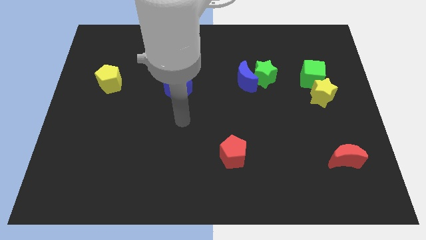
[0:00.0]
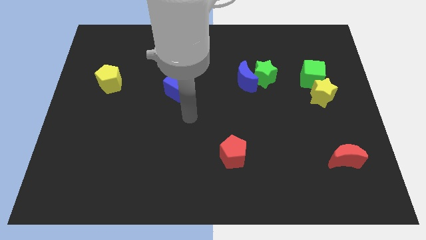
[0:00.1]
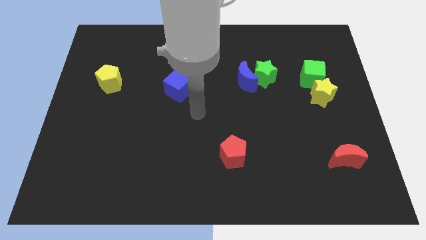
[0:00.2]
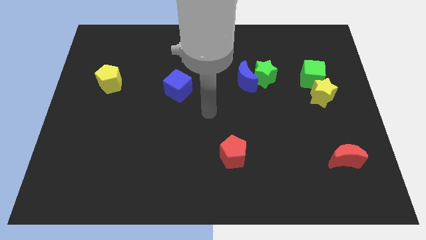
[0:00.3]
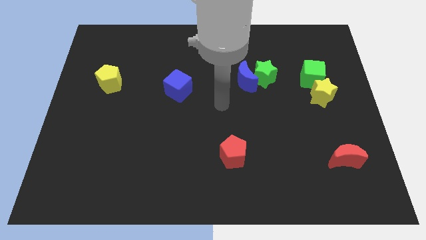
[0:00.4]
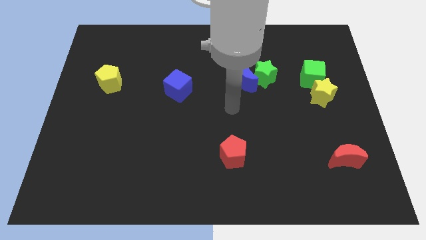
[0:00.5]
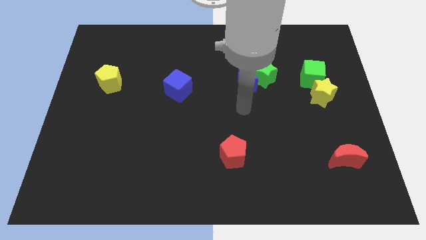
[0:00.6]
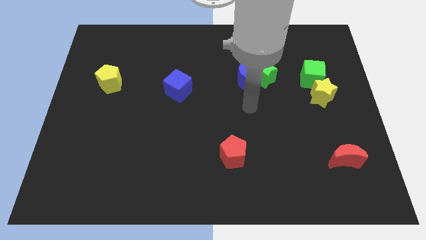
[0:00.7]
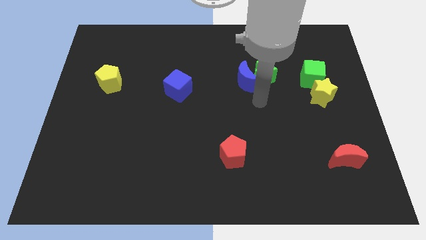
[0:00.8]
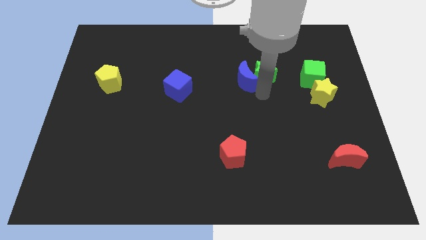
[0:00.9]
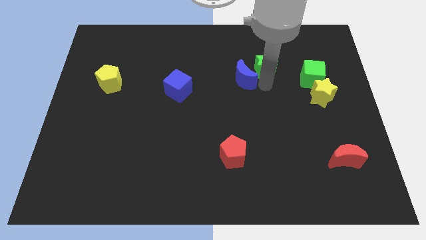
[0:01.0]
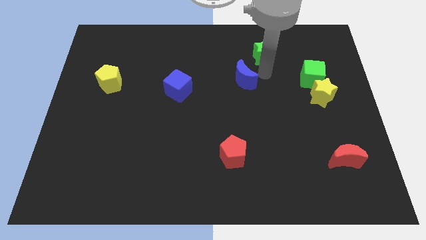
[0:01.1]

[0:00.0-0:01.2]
move the blue moon away from the green star

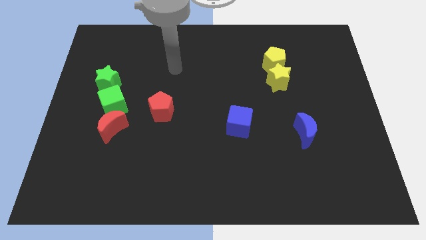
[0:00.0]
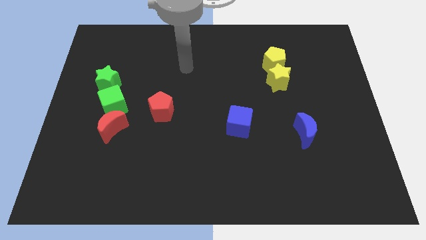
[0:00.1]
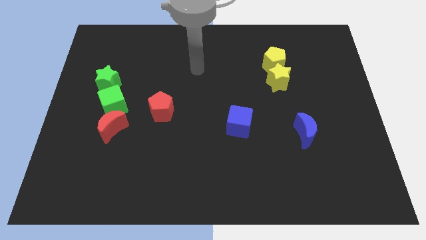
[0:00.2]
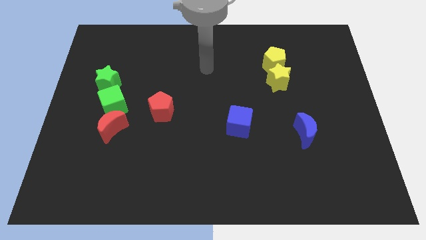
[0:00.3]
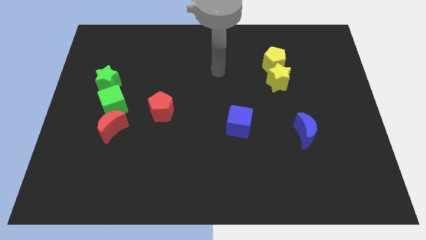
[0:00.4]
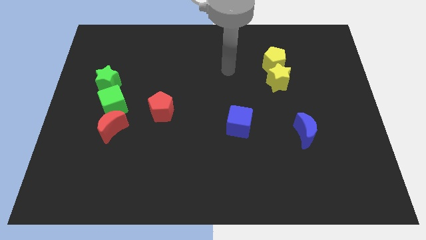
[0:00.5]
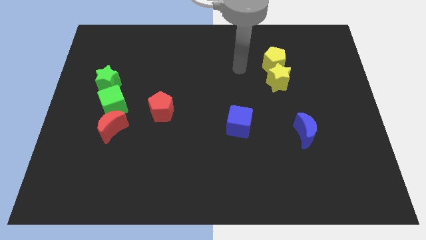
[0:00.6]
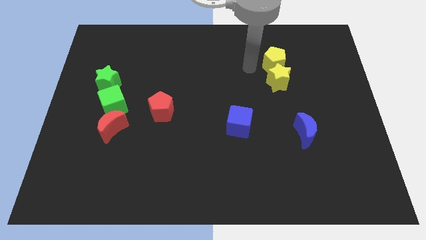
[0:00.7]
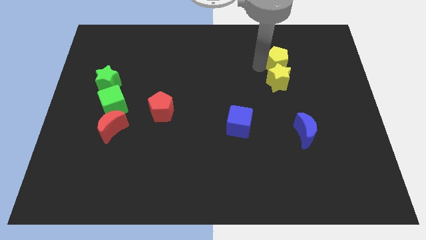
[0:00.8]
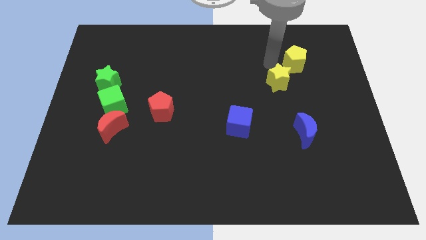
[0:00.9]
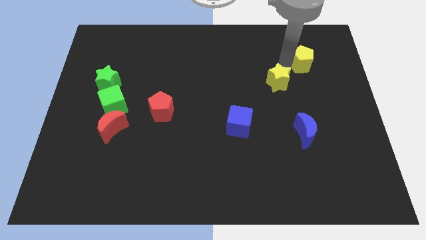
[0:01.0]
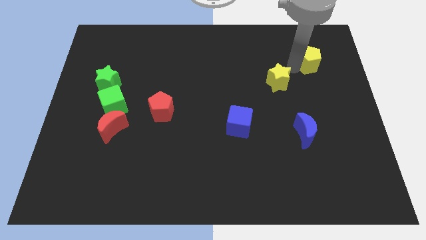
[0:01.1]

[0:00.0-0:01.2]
move the yellow star away from the yellow pentagon

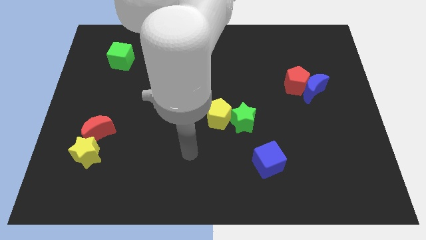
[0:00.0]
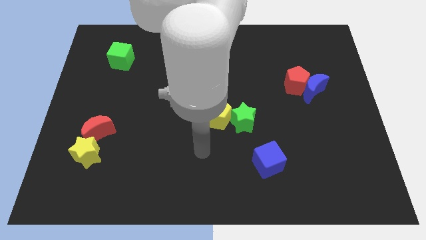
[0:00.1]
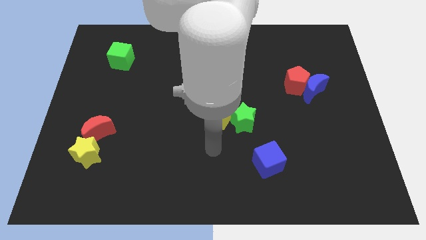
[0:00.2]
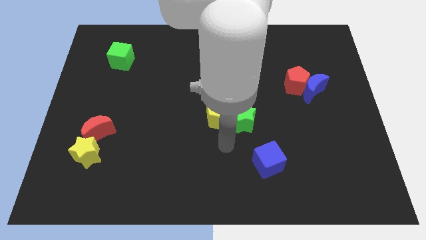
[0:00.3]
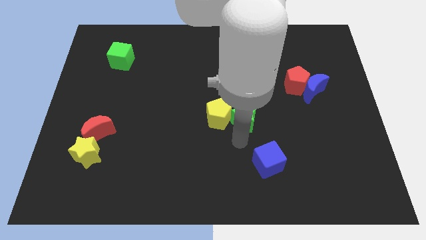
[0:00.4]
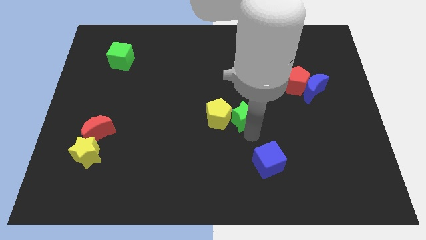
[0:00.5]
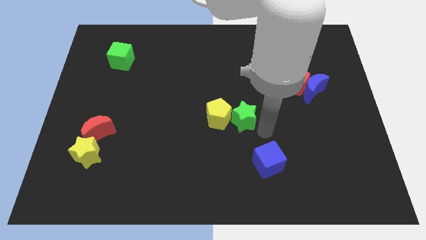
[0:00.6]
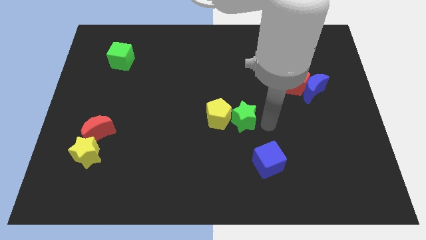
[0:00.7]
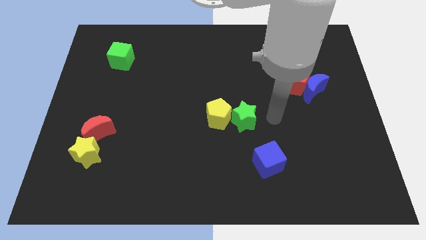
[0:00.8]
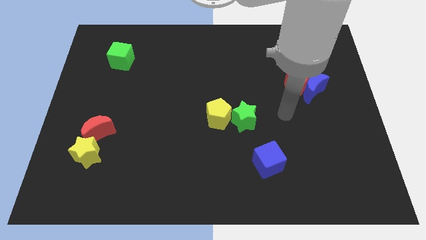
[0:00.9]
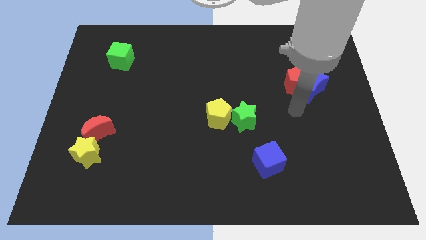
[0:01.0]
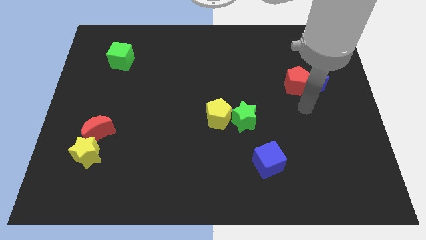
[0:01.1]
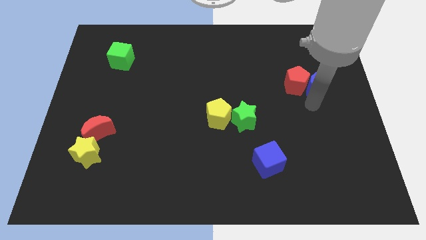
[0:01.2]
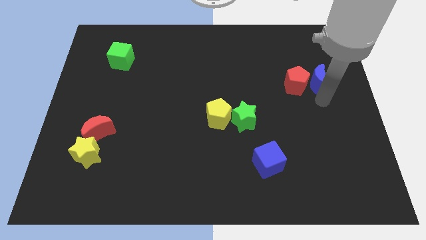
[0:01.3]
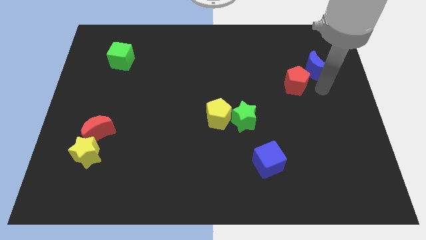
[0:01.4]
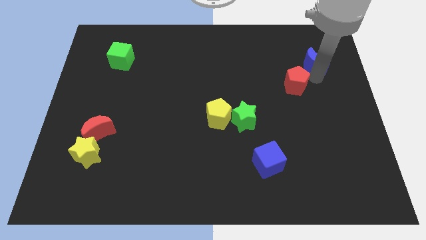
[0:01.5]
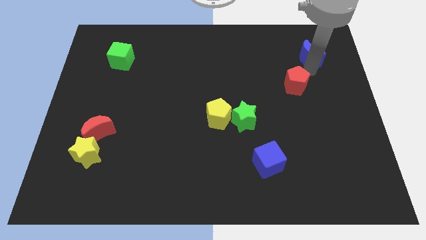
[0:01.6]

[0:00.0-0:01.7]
move the red pentagon away from the blue moon

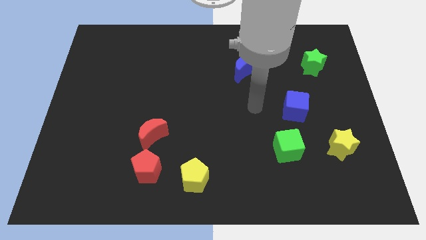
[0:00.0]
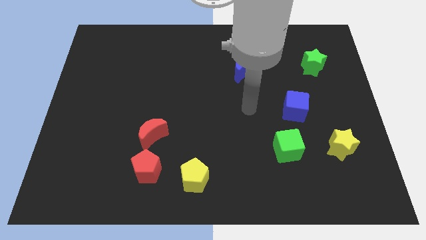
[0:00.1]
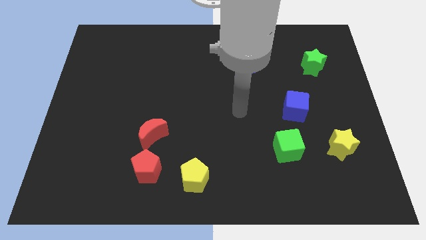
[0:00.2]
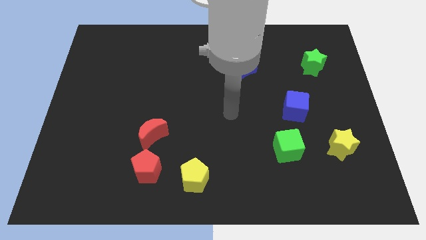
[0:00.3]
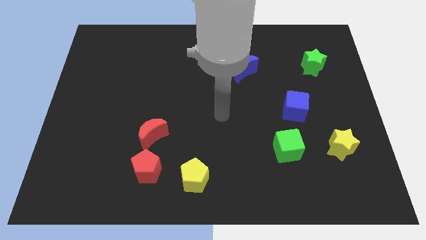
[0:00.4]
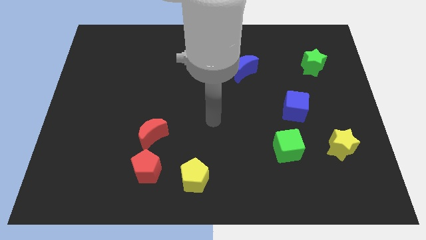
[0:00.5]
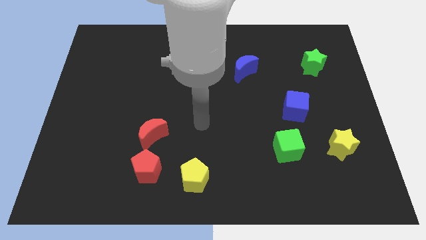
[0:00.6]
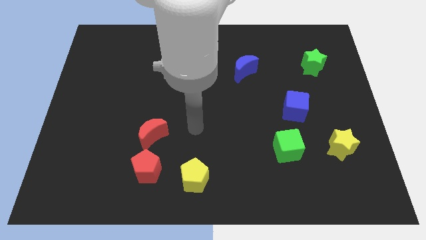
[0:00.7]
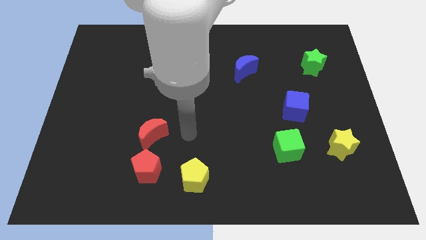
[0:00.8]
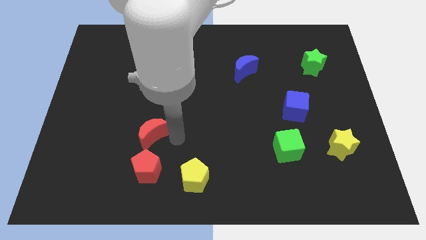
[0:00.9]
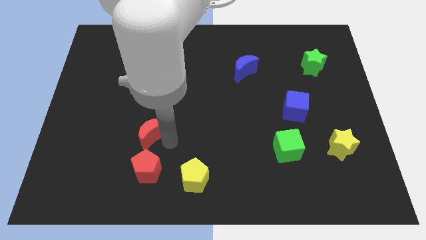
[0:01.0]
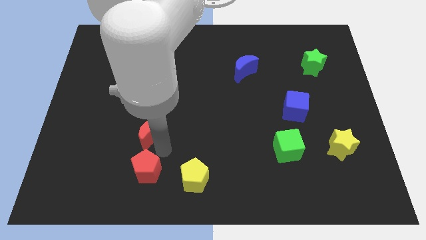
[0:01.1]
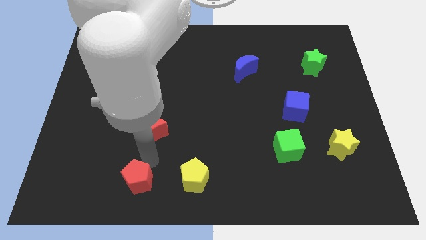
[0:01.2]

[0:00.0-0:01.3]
pull the red moon apart from the red pentagon

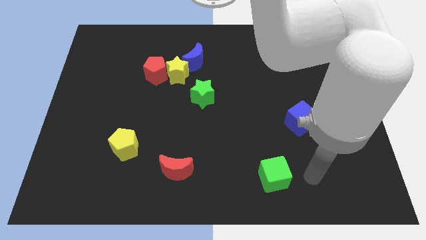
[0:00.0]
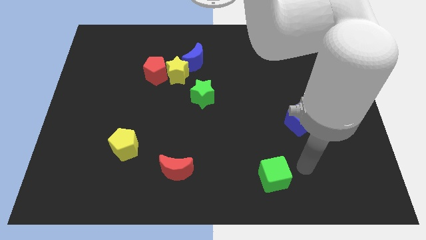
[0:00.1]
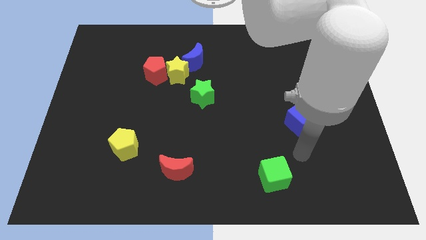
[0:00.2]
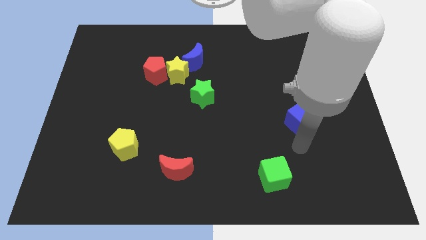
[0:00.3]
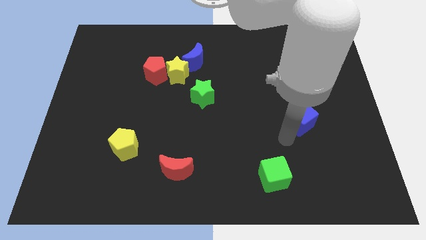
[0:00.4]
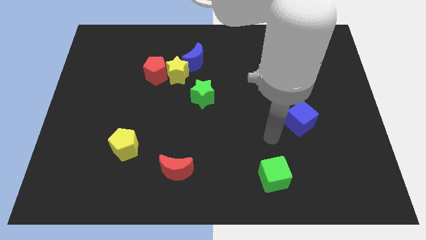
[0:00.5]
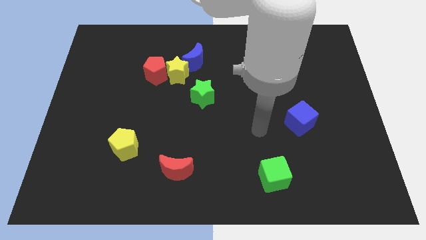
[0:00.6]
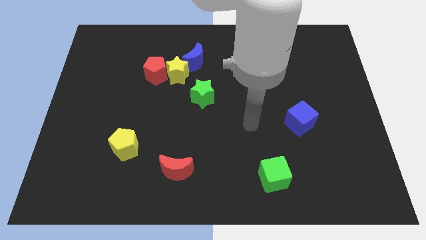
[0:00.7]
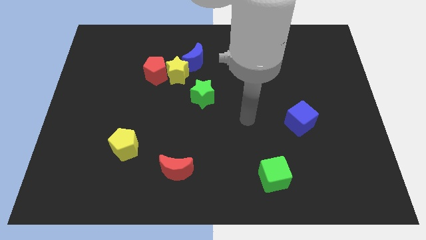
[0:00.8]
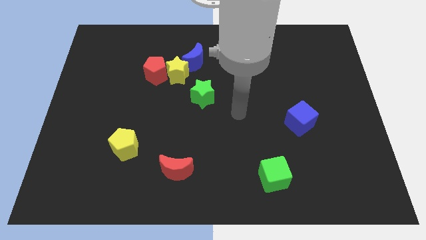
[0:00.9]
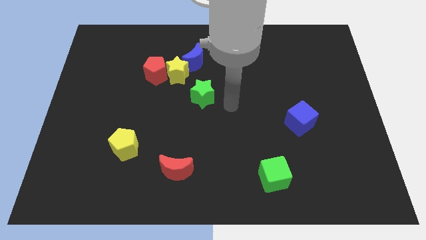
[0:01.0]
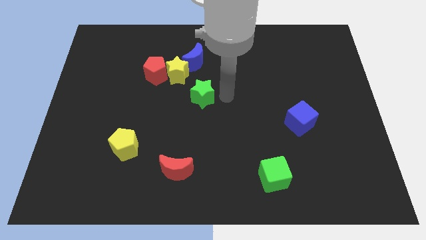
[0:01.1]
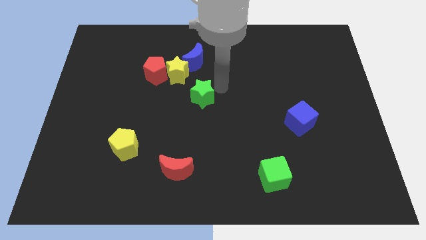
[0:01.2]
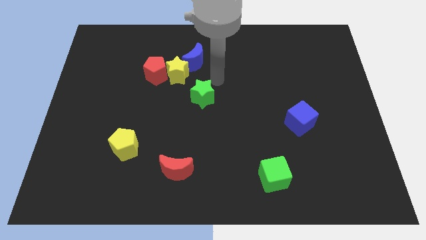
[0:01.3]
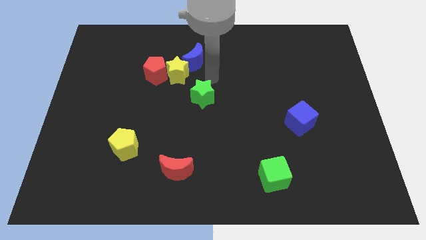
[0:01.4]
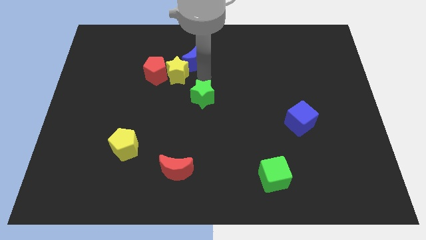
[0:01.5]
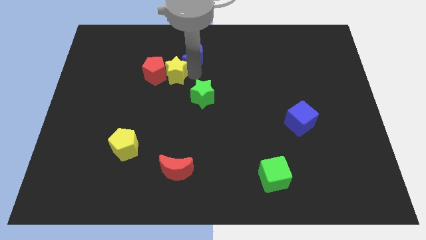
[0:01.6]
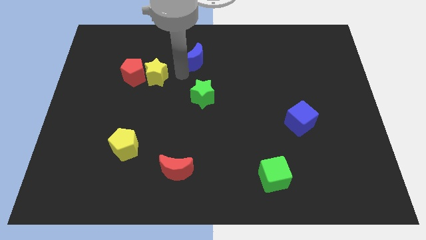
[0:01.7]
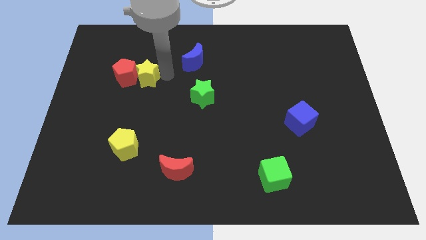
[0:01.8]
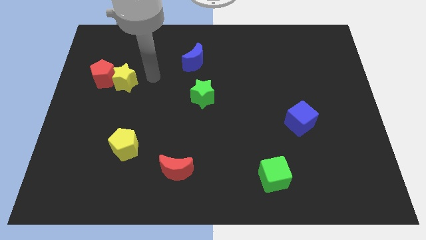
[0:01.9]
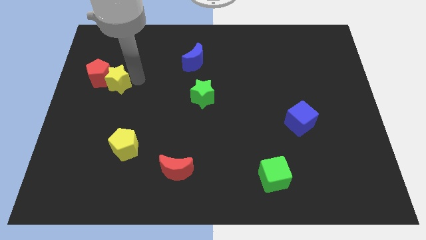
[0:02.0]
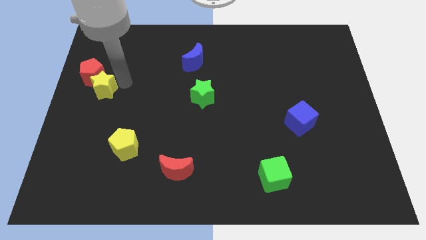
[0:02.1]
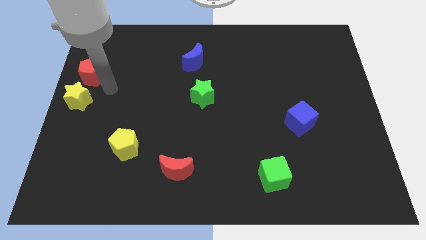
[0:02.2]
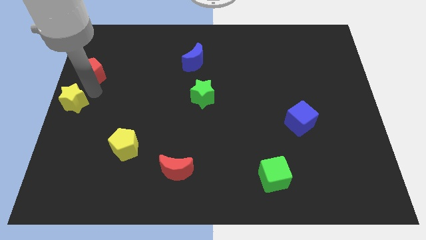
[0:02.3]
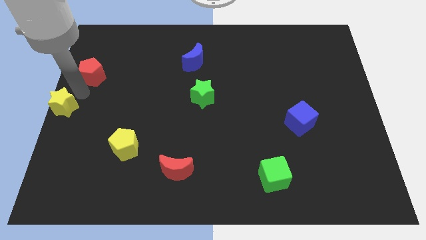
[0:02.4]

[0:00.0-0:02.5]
move the red pentagon away from the yellow star

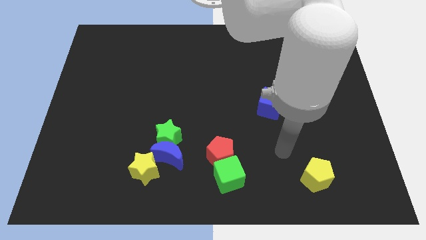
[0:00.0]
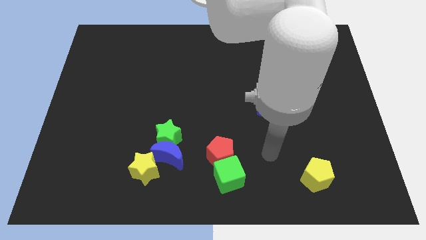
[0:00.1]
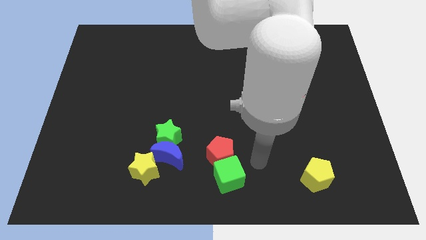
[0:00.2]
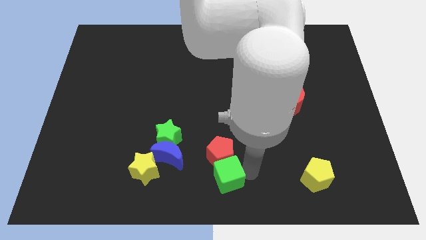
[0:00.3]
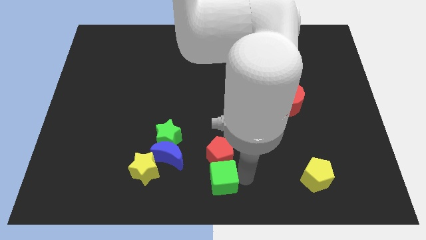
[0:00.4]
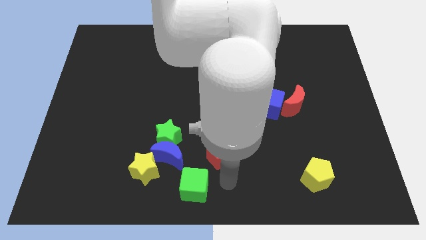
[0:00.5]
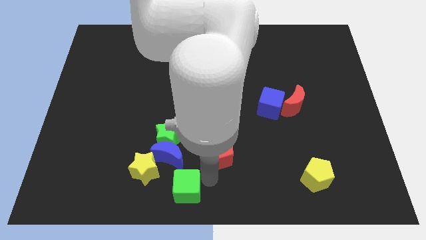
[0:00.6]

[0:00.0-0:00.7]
pull the red pentagon apart from the green cube

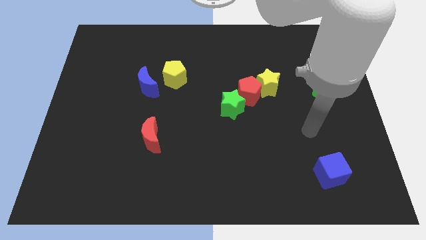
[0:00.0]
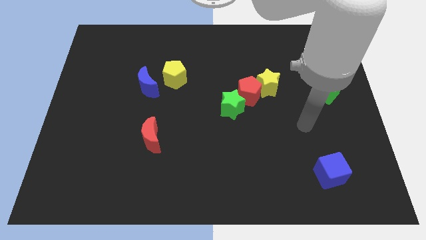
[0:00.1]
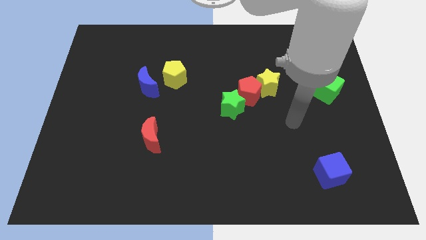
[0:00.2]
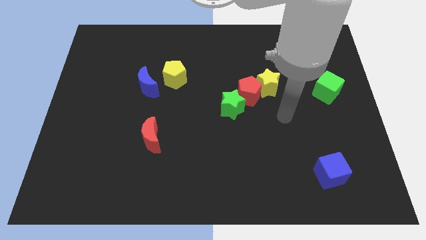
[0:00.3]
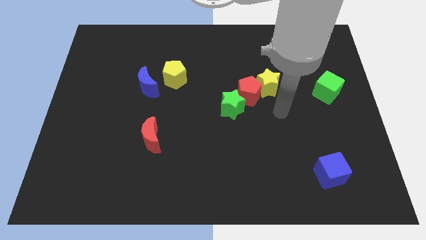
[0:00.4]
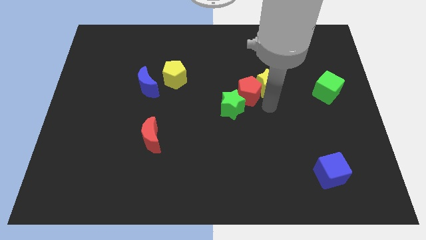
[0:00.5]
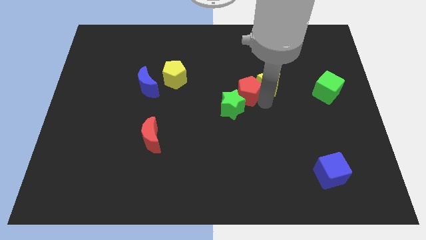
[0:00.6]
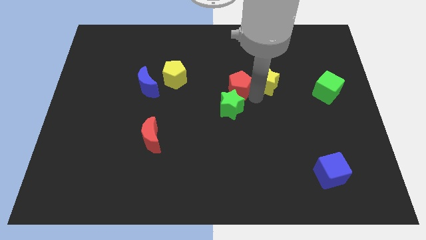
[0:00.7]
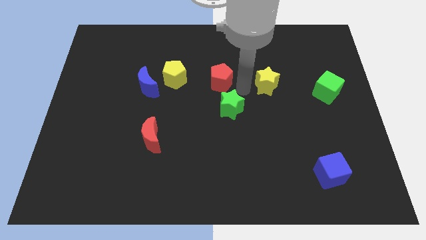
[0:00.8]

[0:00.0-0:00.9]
pull the yellow star apart from the red pentagon

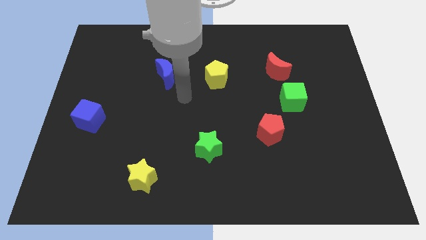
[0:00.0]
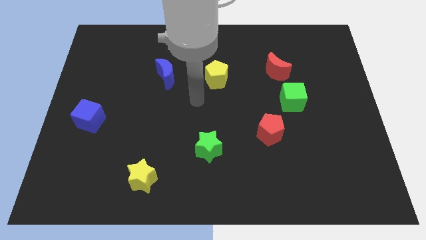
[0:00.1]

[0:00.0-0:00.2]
pull the red moon apart from the green cube
